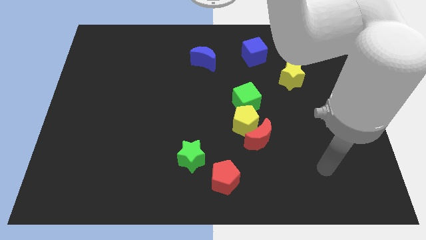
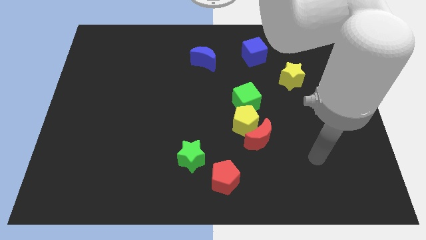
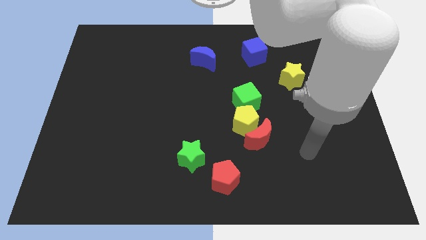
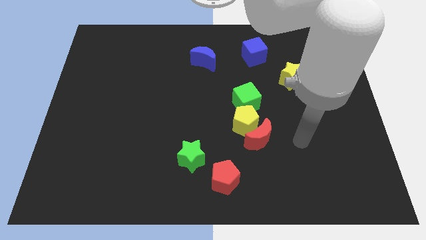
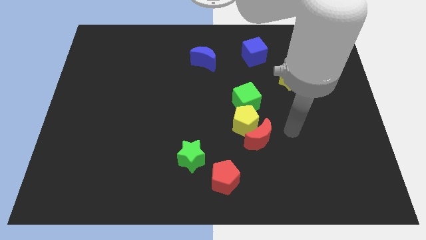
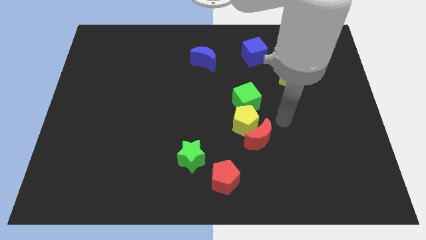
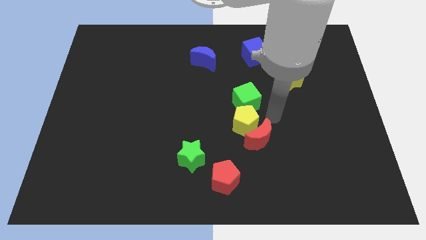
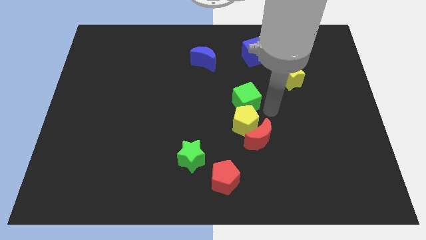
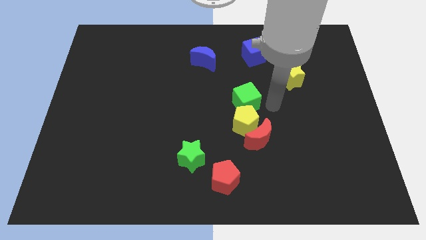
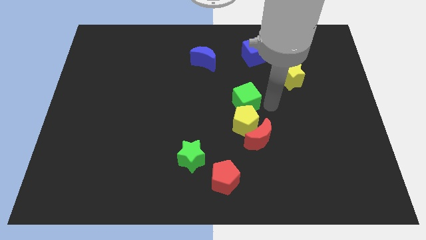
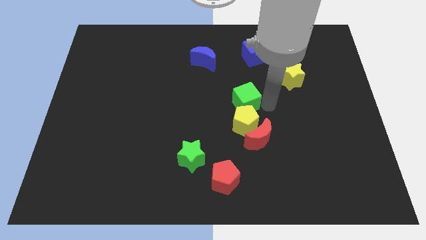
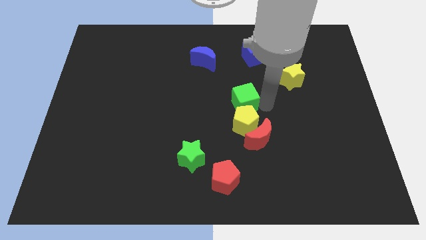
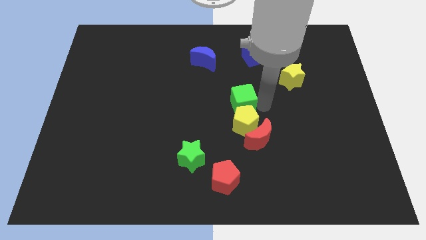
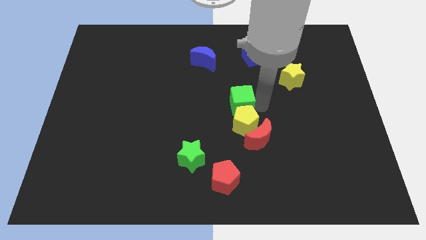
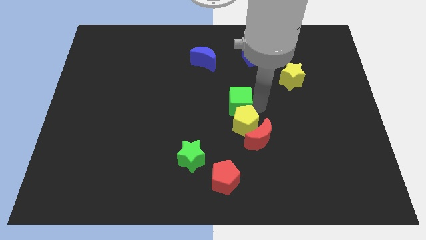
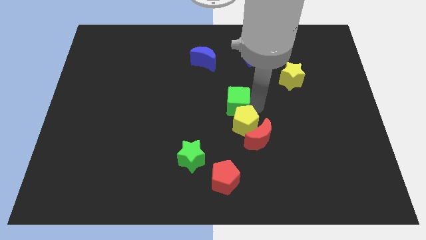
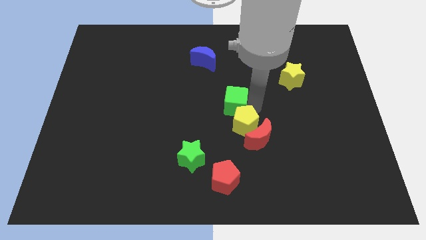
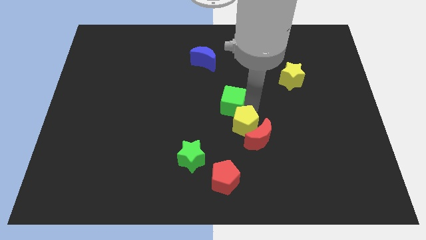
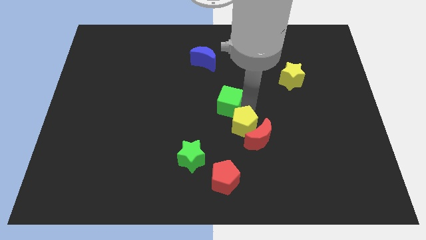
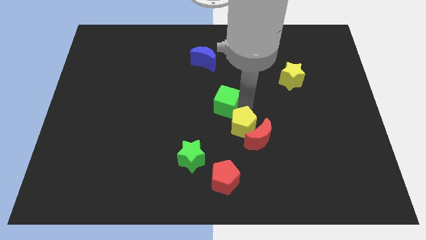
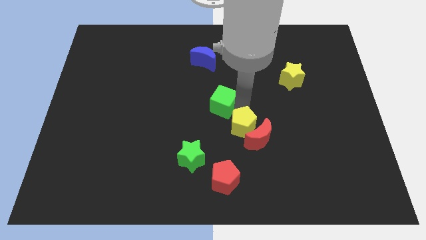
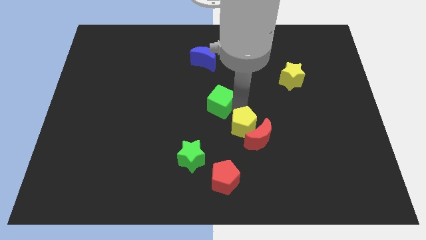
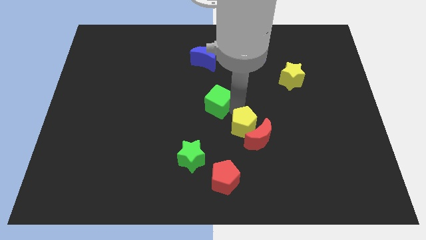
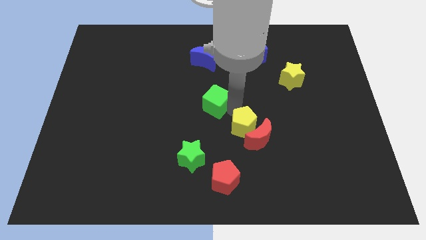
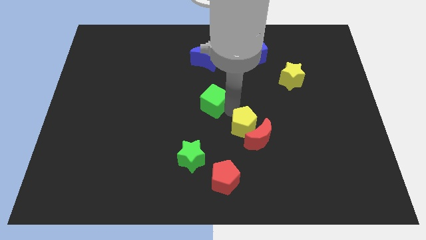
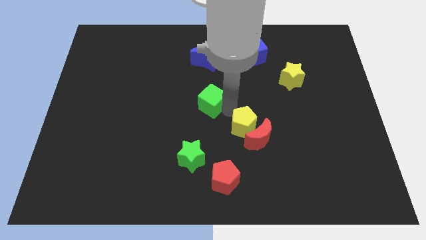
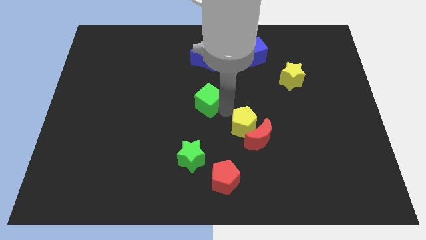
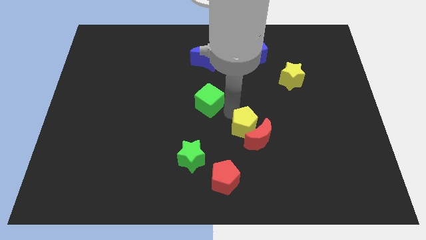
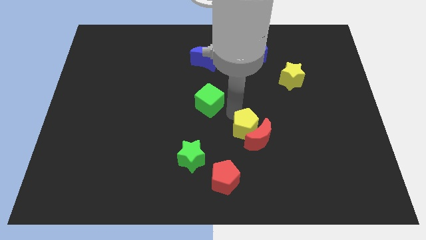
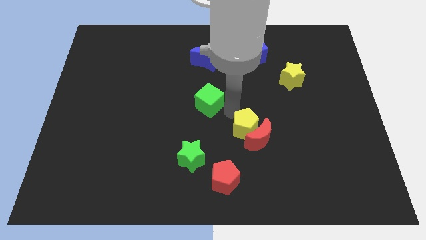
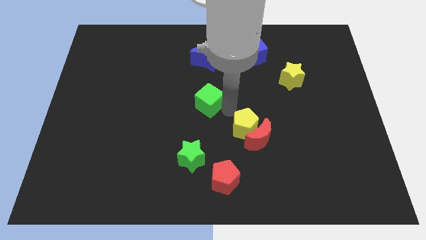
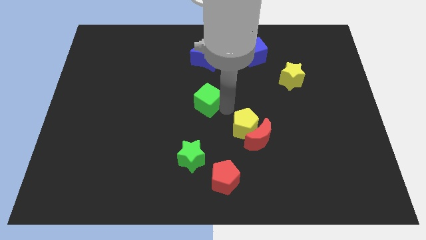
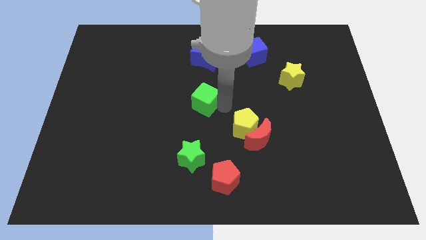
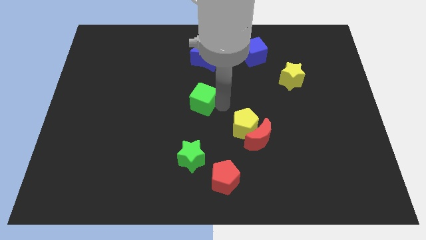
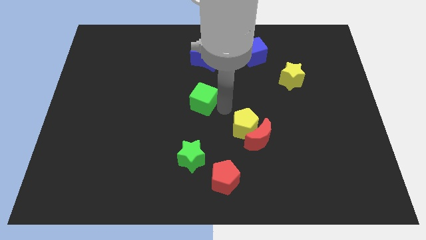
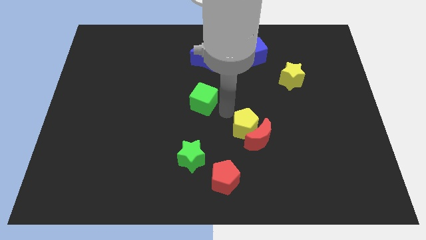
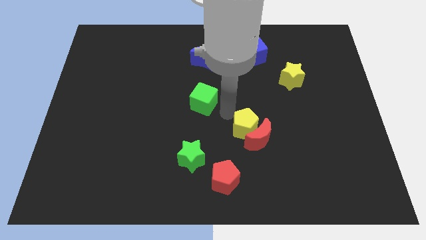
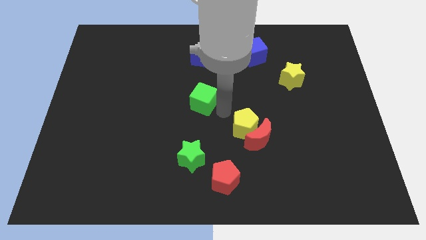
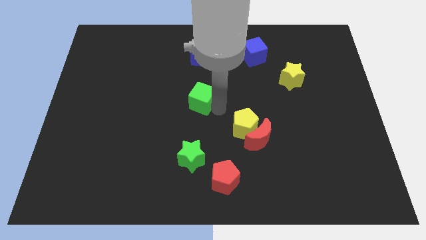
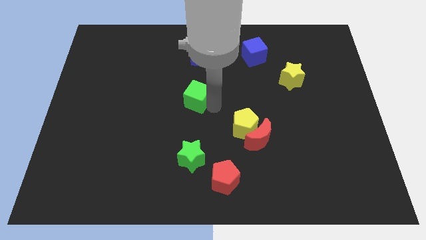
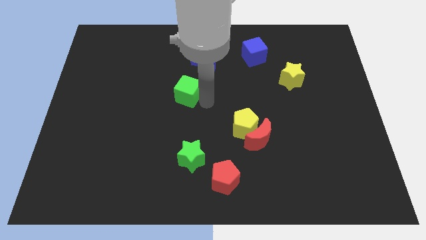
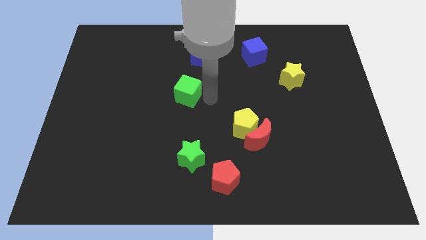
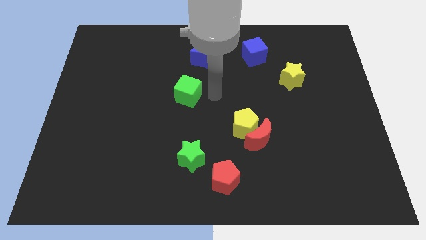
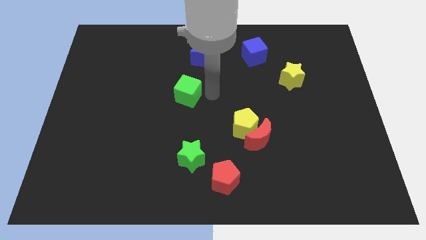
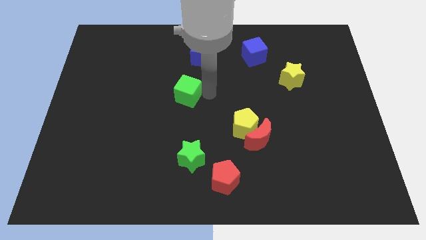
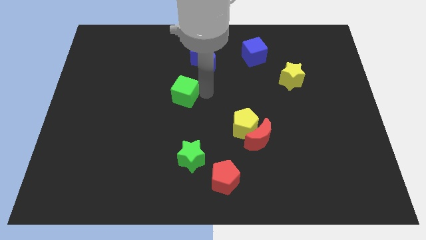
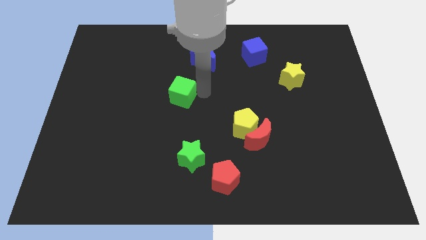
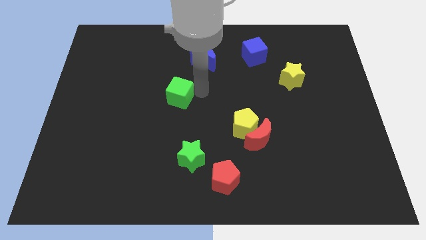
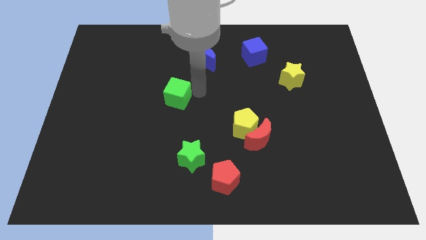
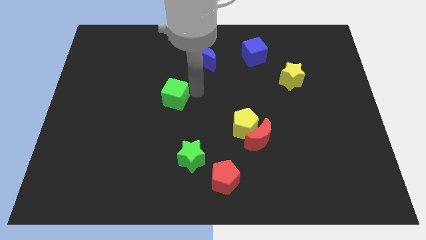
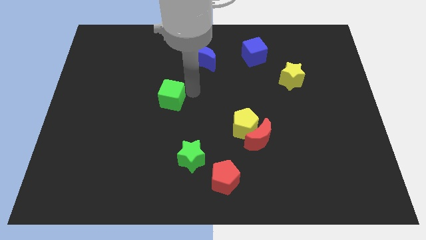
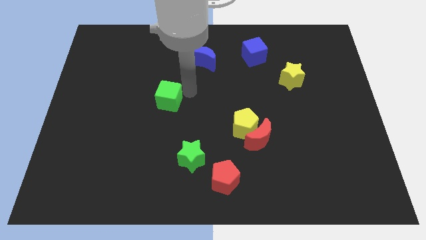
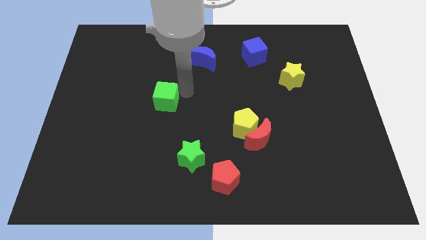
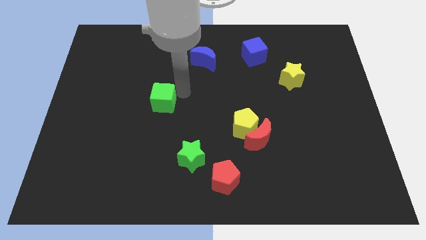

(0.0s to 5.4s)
move the green cube left

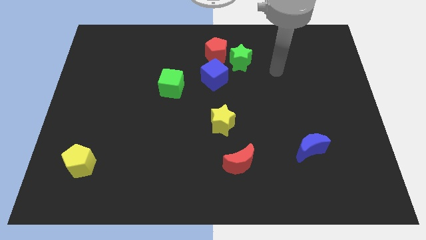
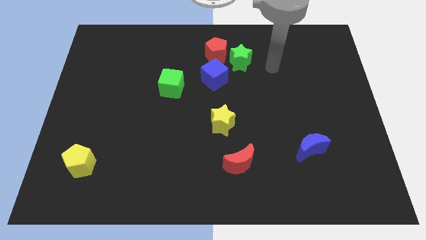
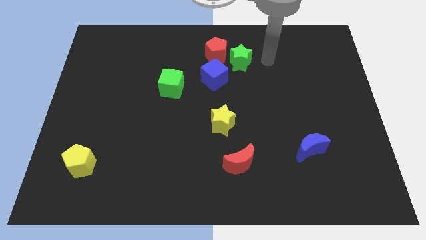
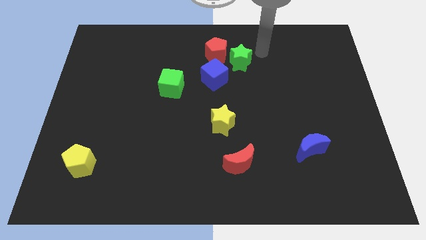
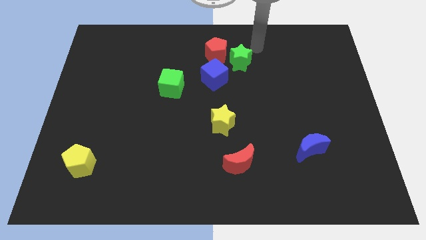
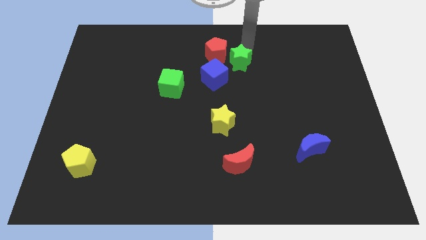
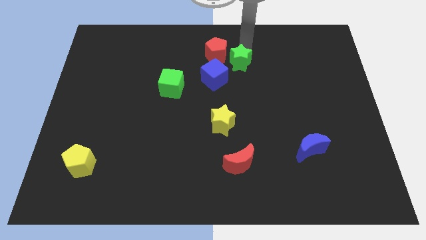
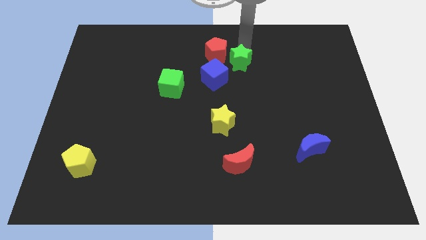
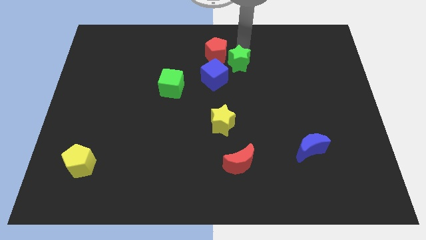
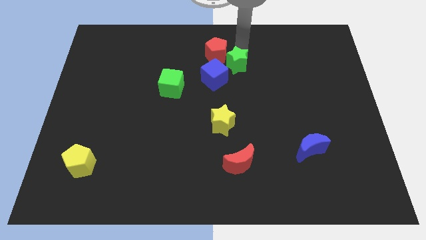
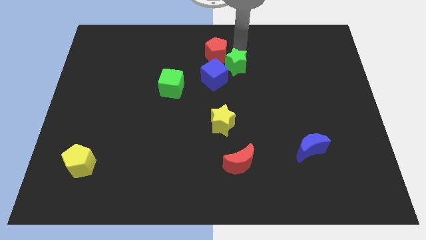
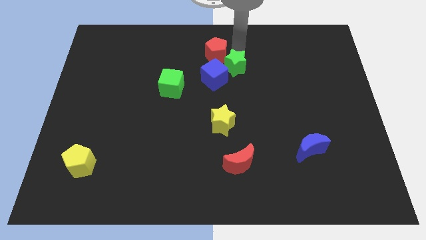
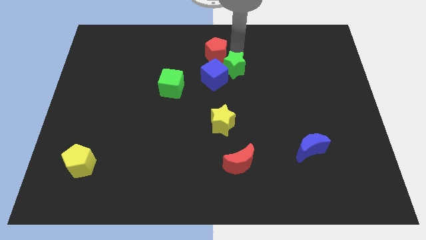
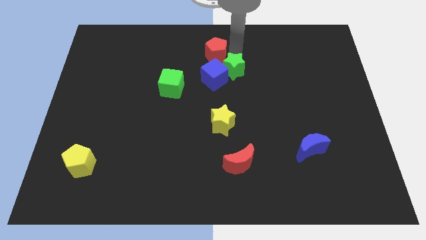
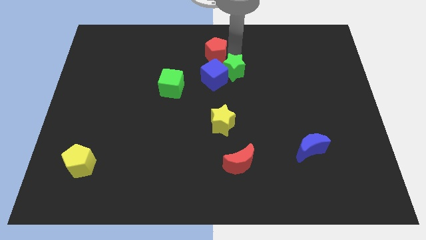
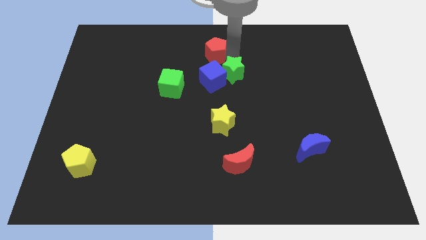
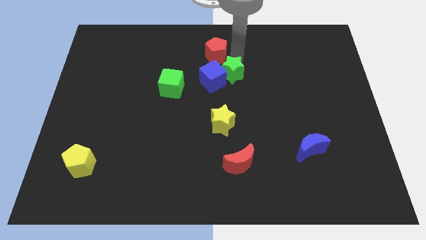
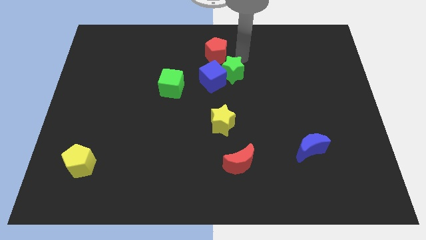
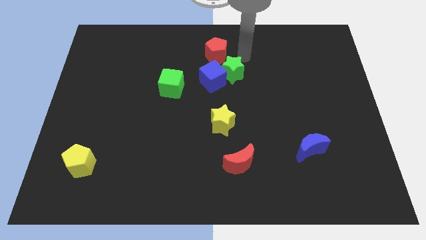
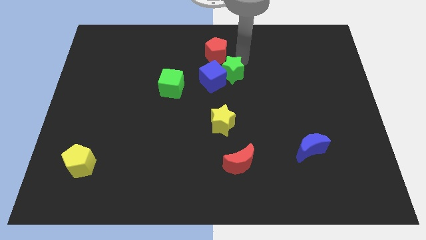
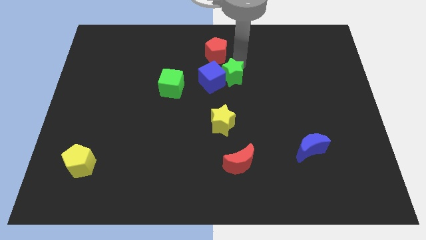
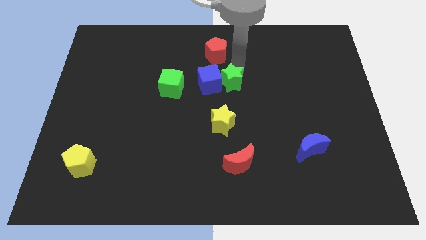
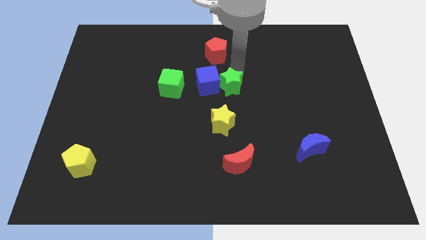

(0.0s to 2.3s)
move the green star a little downwards and then left

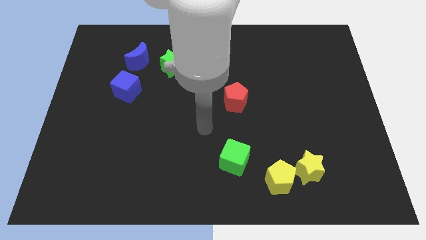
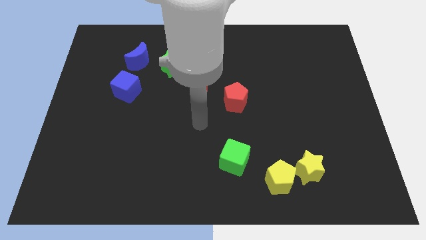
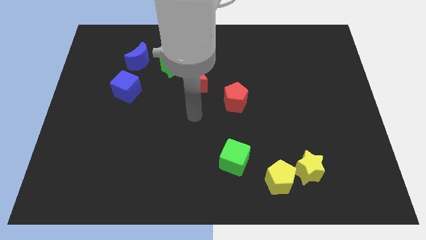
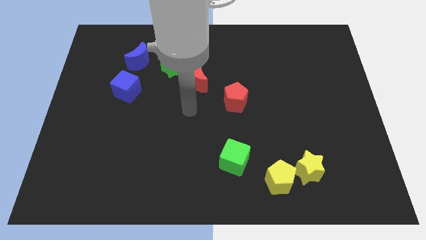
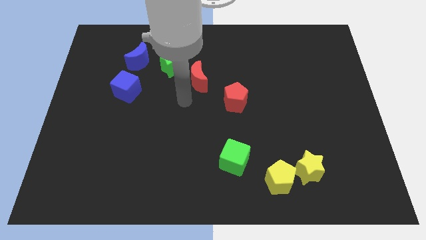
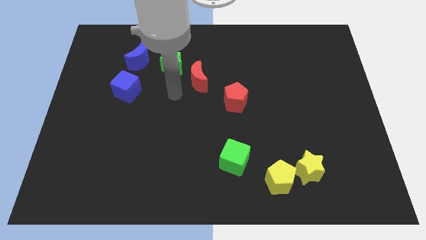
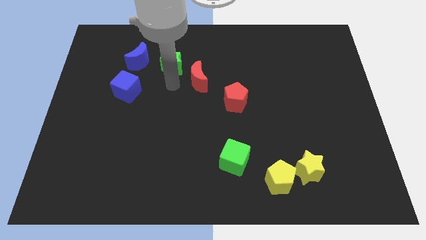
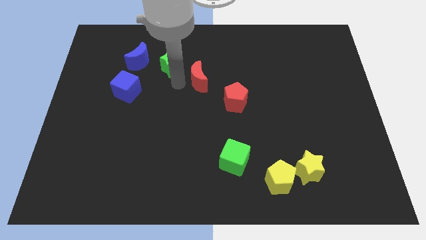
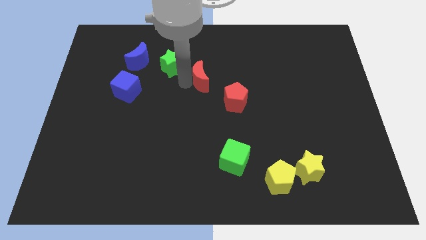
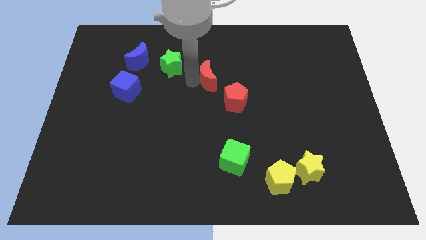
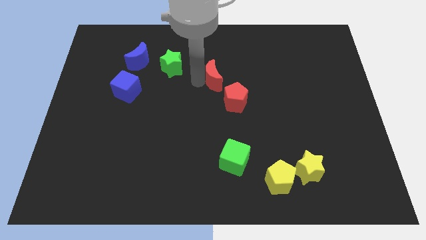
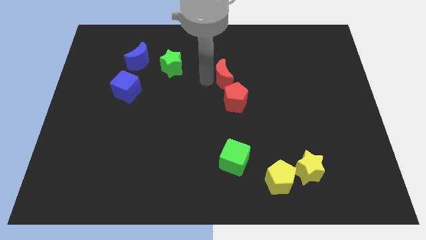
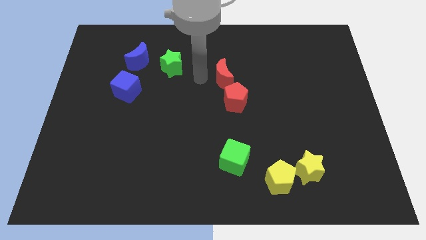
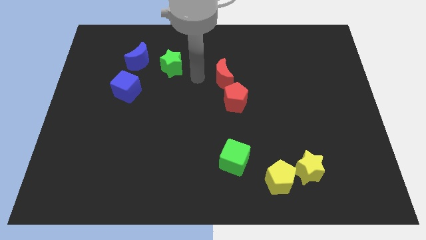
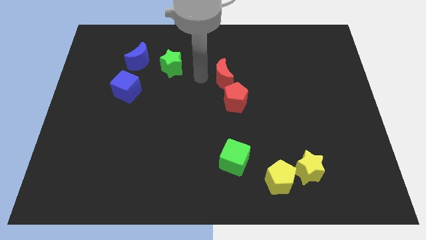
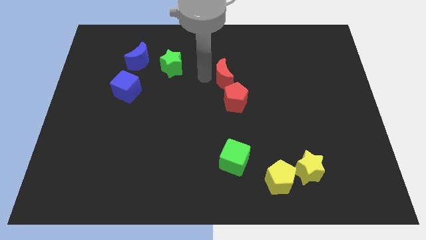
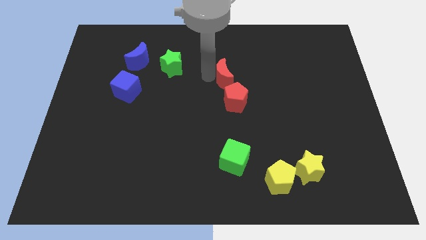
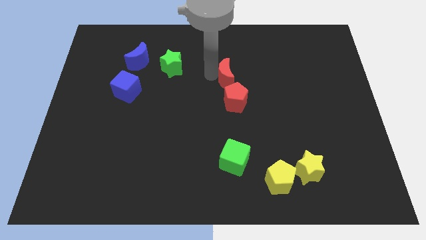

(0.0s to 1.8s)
slightly push the red moon to the right
